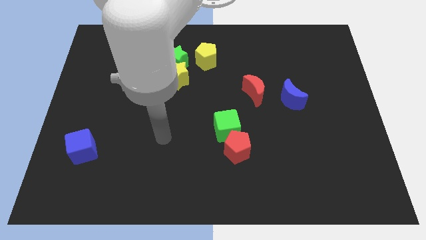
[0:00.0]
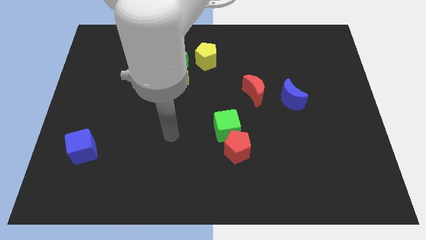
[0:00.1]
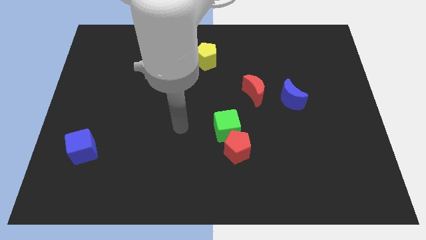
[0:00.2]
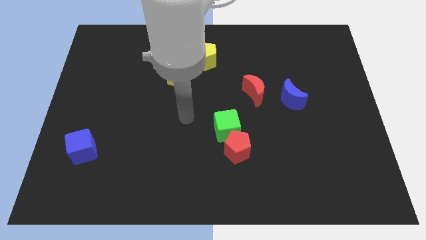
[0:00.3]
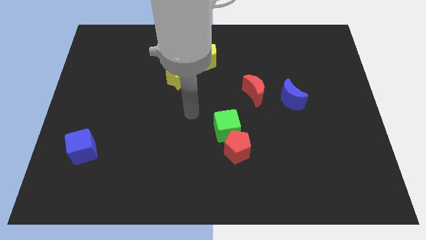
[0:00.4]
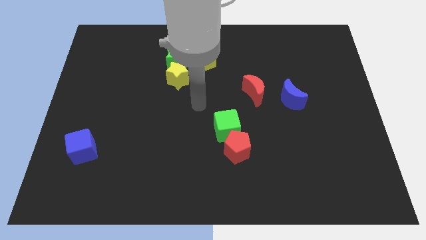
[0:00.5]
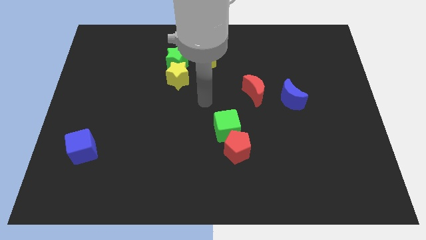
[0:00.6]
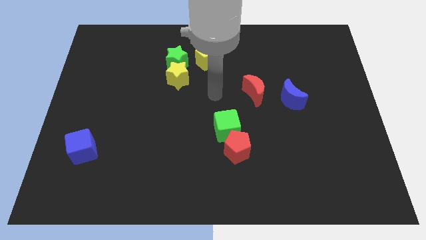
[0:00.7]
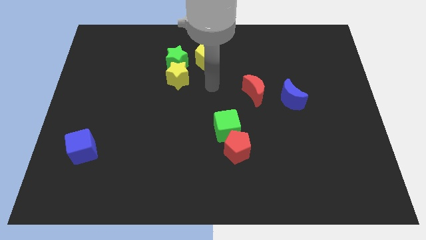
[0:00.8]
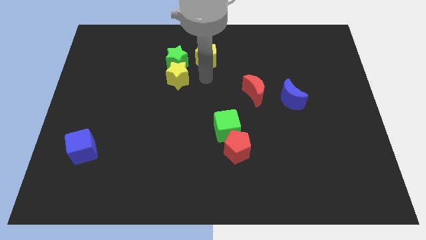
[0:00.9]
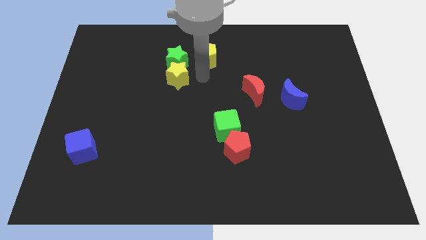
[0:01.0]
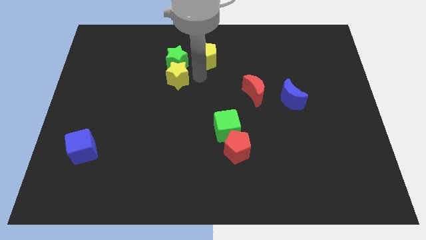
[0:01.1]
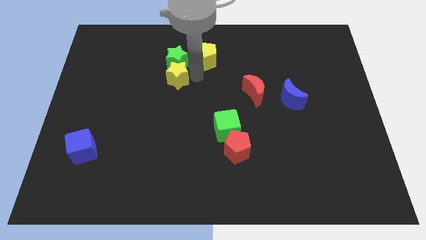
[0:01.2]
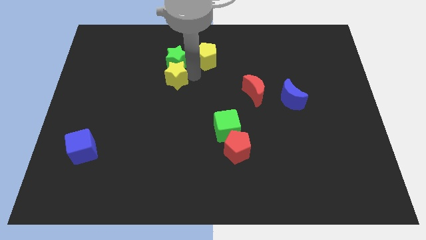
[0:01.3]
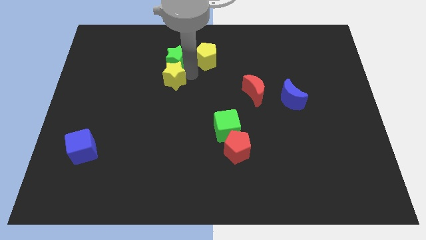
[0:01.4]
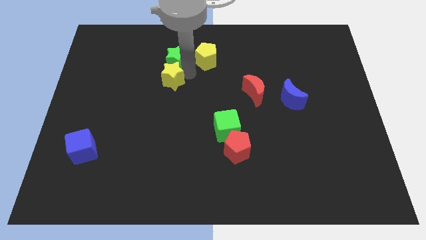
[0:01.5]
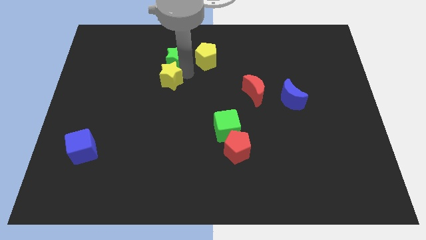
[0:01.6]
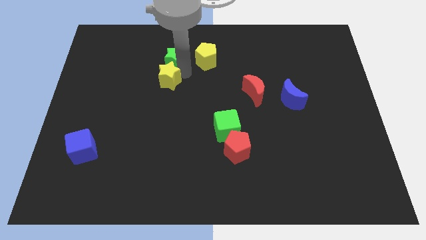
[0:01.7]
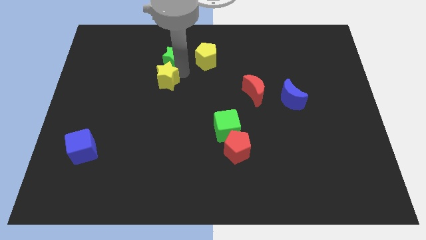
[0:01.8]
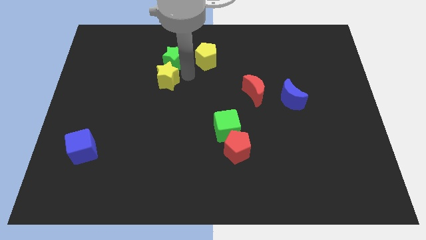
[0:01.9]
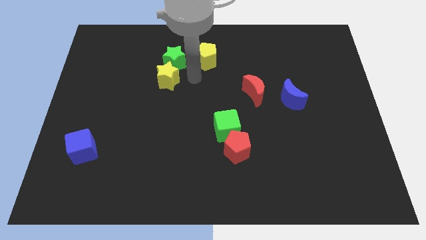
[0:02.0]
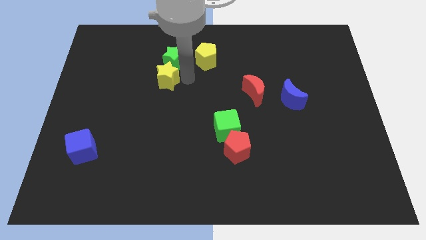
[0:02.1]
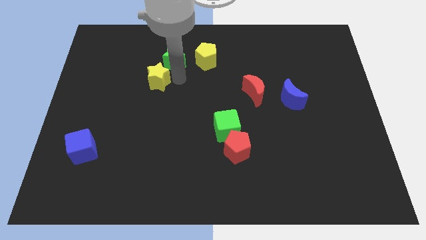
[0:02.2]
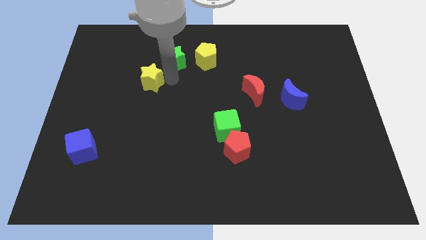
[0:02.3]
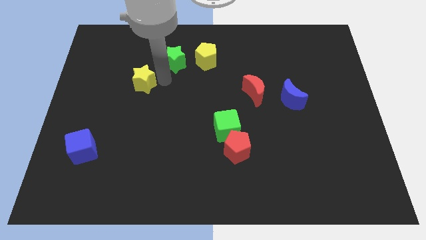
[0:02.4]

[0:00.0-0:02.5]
slightly move the yellow star left

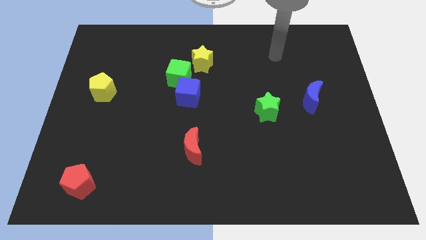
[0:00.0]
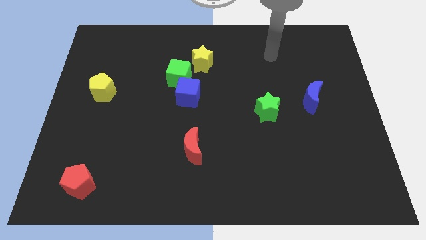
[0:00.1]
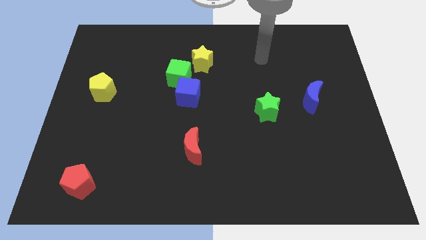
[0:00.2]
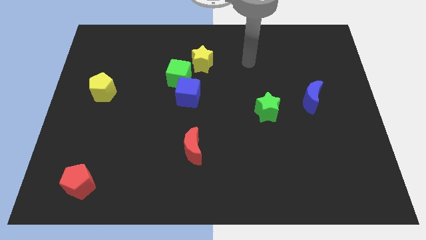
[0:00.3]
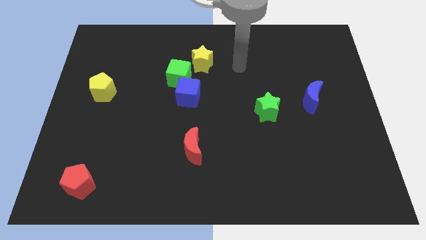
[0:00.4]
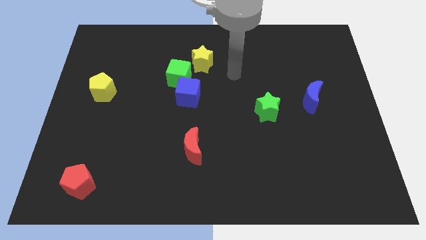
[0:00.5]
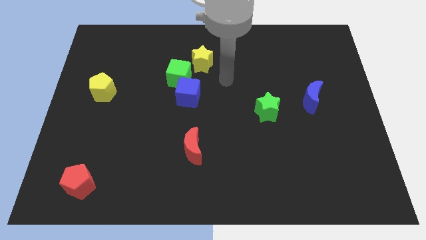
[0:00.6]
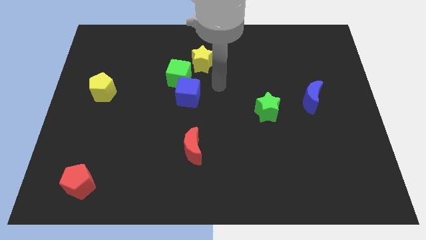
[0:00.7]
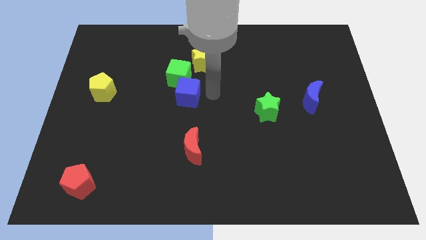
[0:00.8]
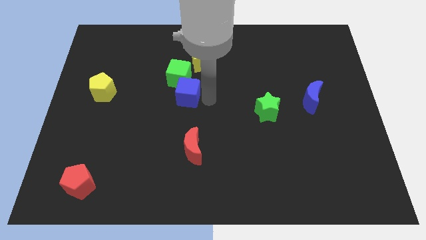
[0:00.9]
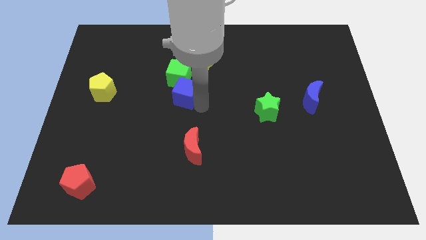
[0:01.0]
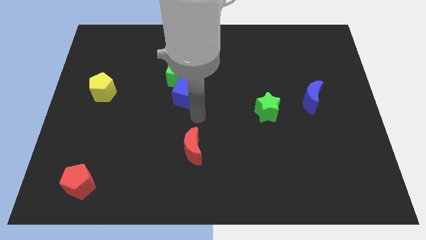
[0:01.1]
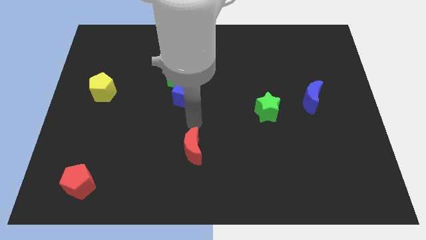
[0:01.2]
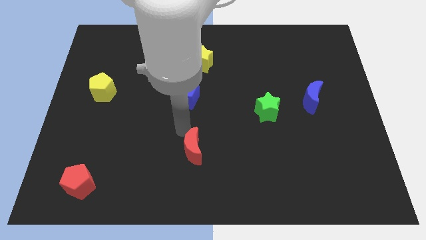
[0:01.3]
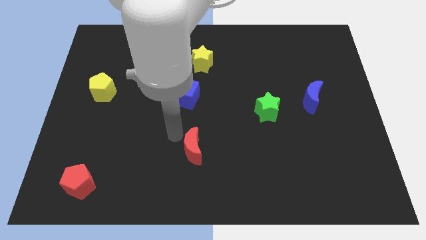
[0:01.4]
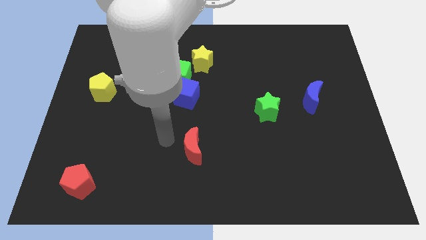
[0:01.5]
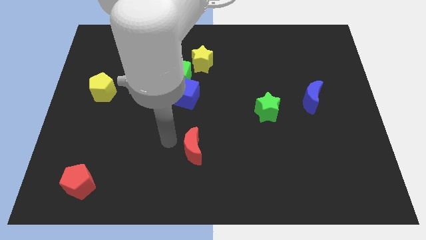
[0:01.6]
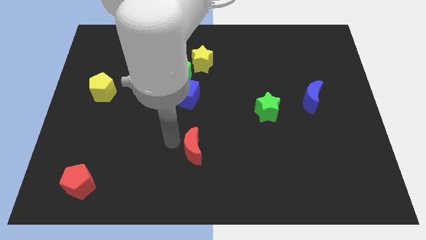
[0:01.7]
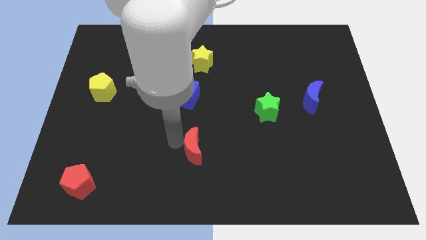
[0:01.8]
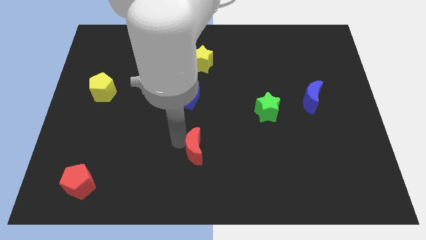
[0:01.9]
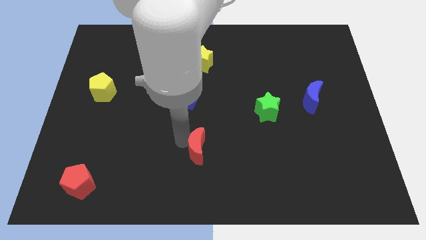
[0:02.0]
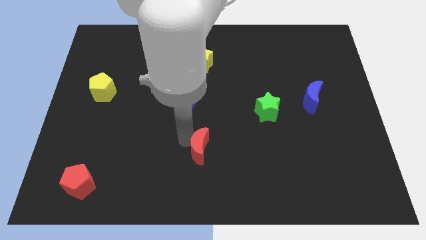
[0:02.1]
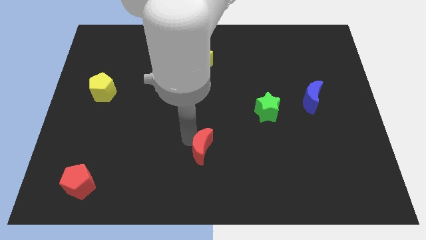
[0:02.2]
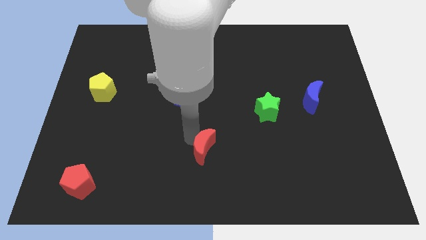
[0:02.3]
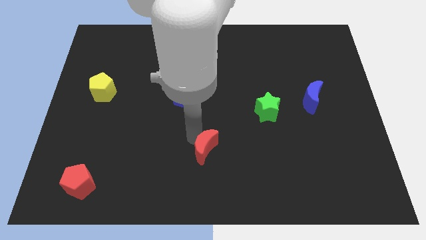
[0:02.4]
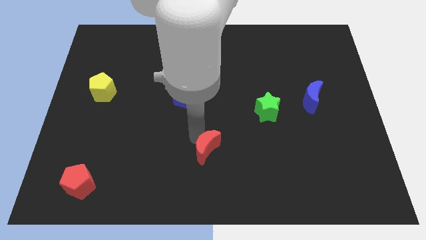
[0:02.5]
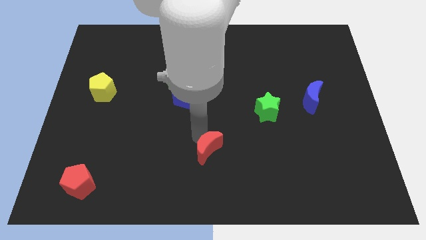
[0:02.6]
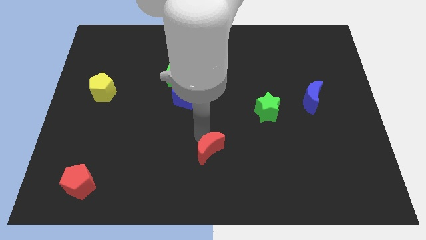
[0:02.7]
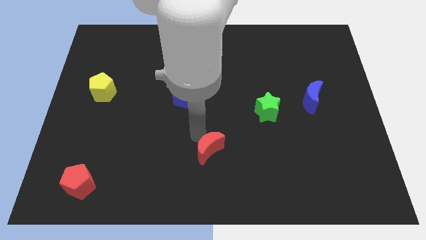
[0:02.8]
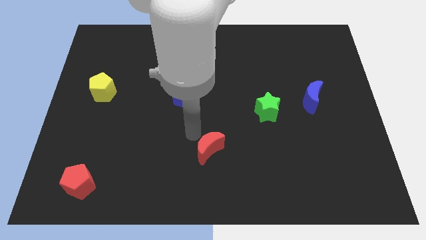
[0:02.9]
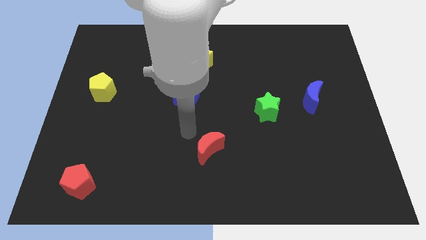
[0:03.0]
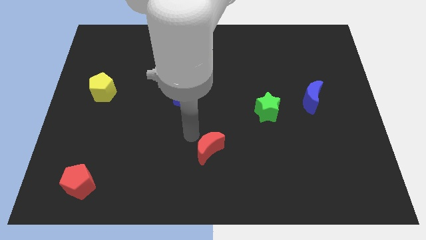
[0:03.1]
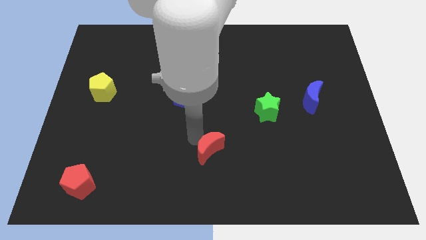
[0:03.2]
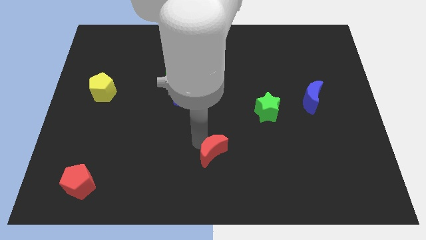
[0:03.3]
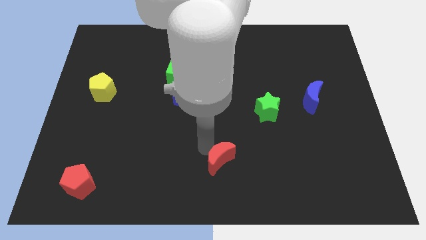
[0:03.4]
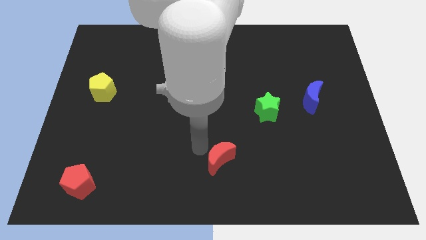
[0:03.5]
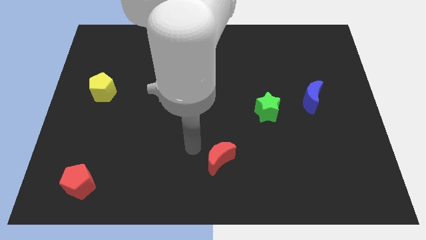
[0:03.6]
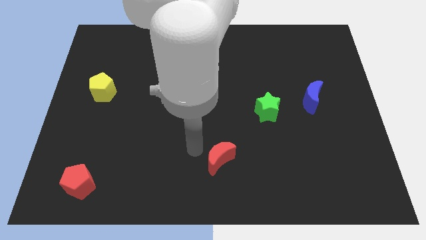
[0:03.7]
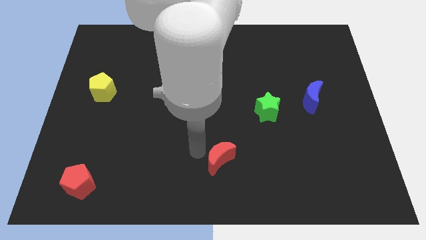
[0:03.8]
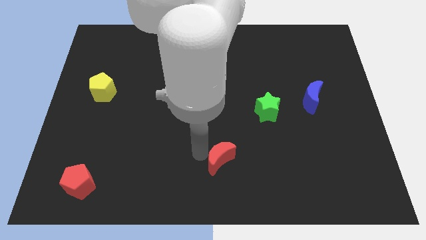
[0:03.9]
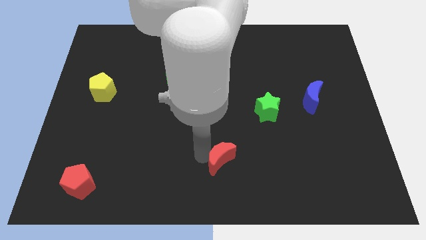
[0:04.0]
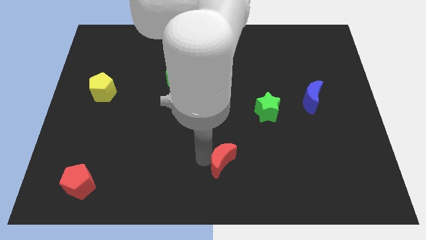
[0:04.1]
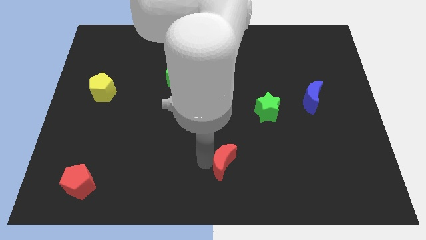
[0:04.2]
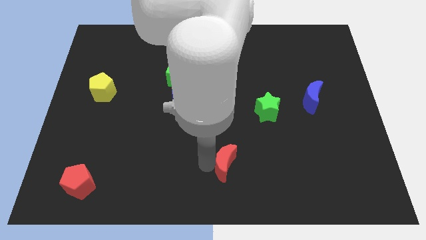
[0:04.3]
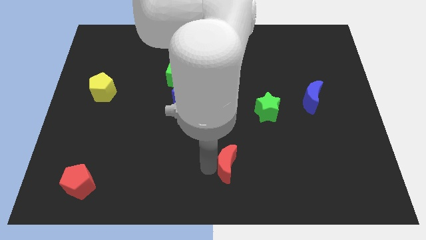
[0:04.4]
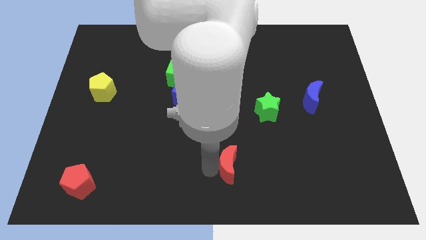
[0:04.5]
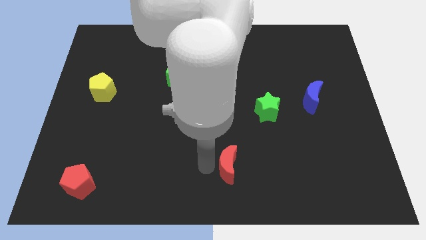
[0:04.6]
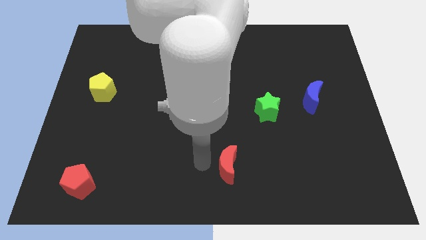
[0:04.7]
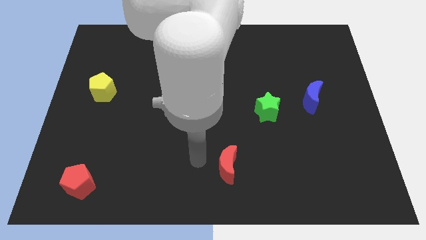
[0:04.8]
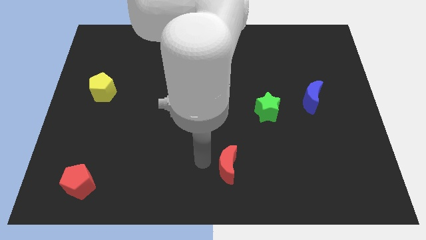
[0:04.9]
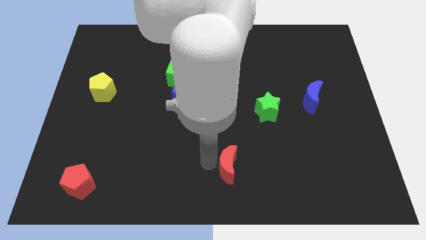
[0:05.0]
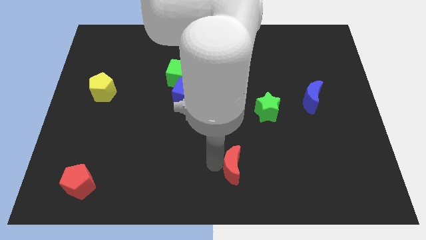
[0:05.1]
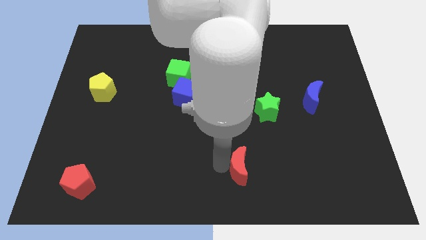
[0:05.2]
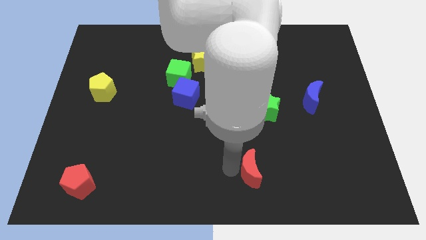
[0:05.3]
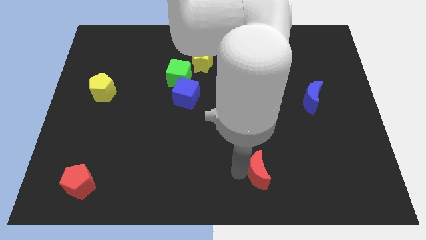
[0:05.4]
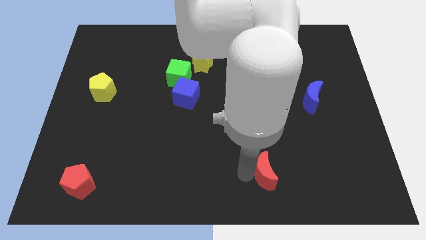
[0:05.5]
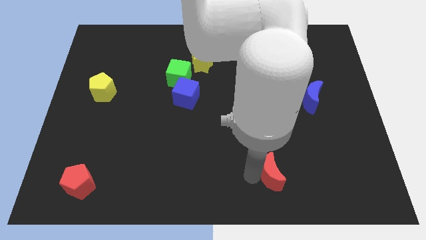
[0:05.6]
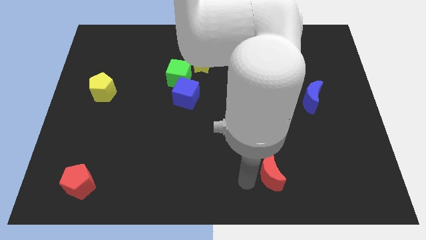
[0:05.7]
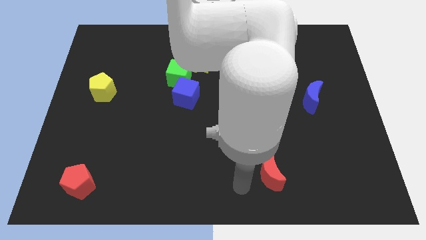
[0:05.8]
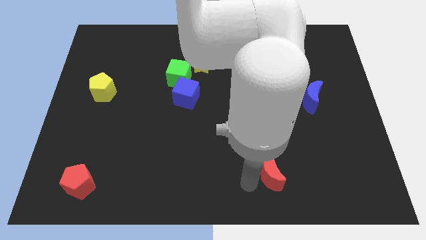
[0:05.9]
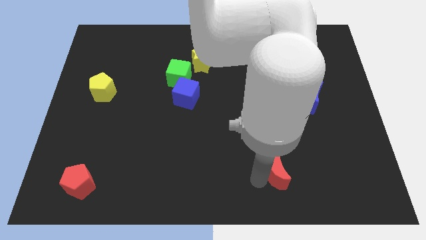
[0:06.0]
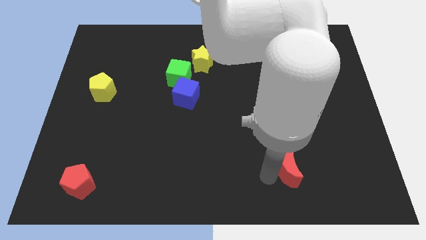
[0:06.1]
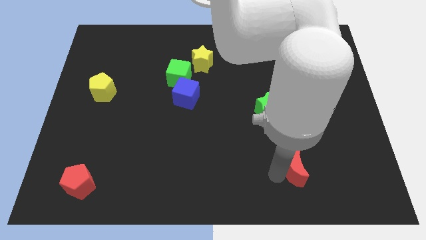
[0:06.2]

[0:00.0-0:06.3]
push the red moon right
